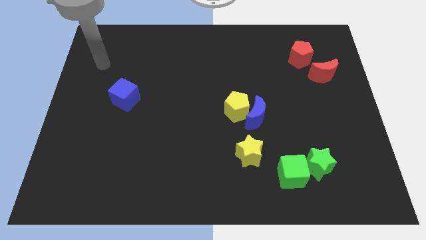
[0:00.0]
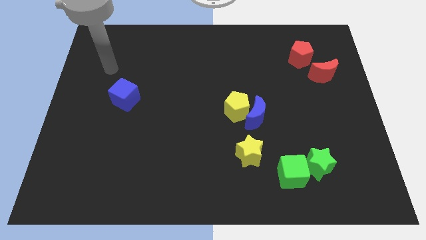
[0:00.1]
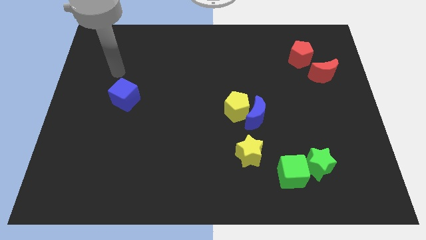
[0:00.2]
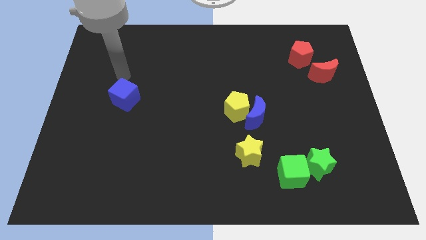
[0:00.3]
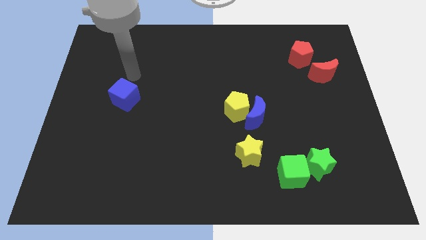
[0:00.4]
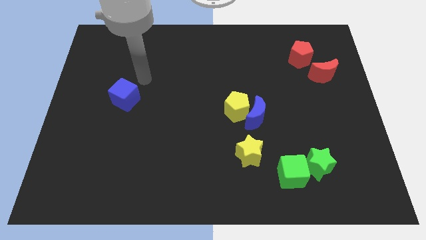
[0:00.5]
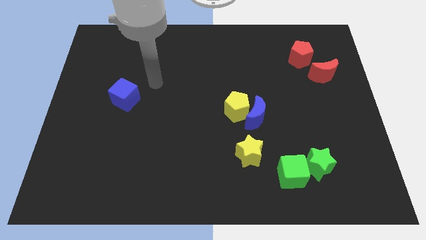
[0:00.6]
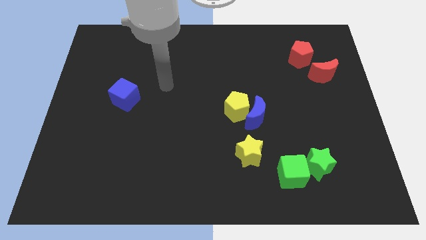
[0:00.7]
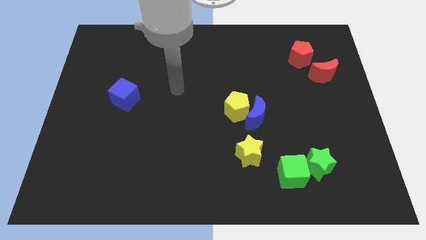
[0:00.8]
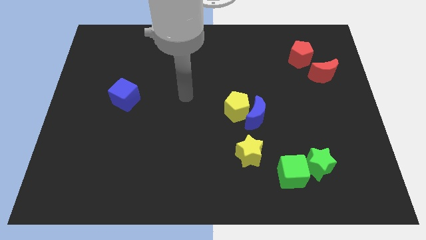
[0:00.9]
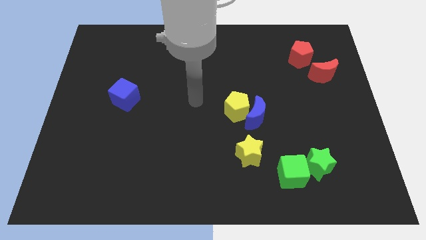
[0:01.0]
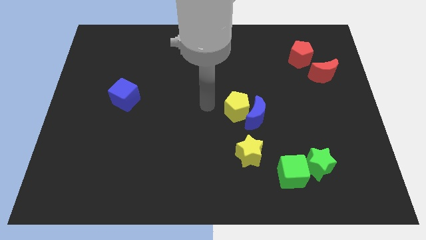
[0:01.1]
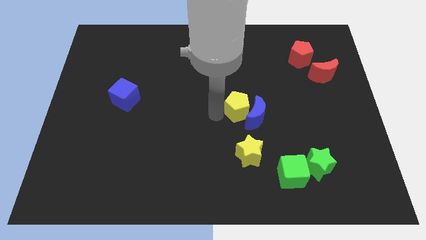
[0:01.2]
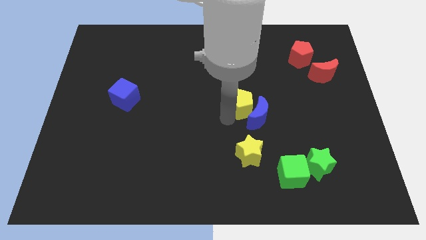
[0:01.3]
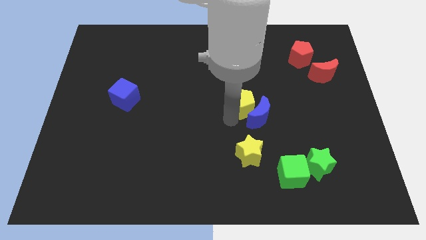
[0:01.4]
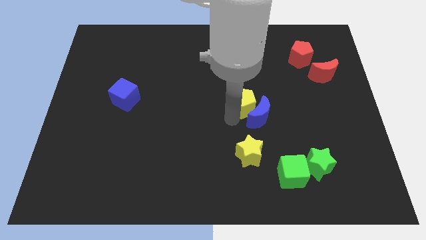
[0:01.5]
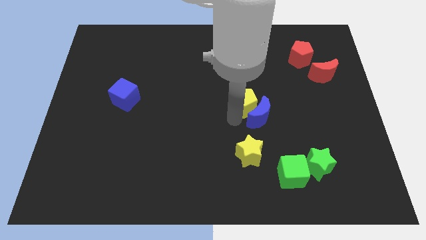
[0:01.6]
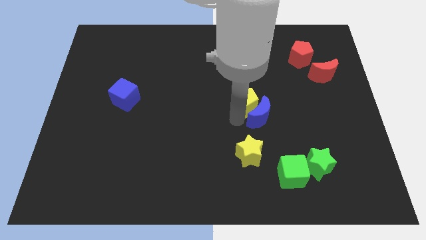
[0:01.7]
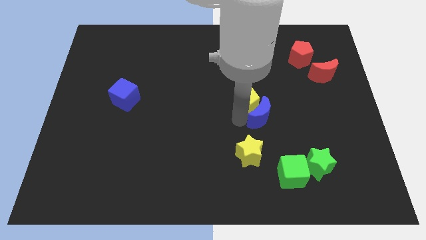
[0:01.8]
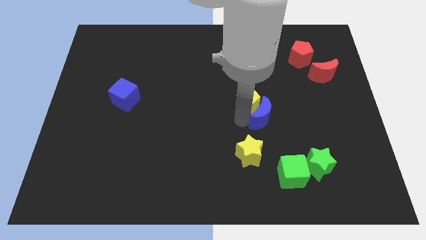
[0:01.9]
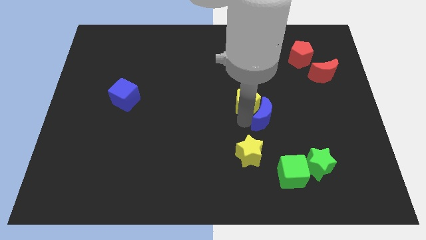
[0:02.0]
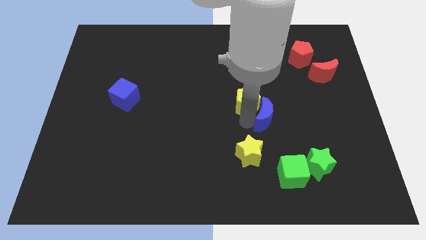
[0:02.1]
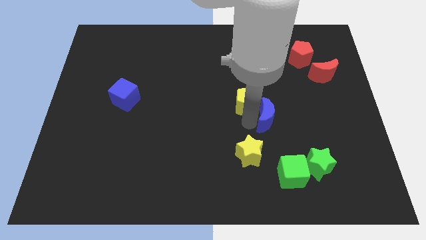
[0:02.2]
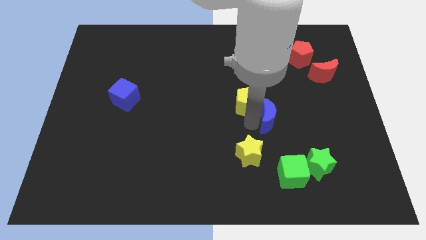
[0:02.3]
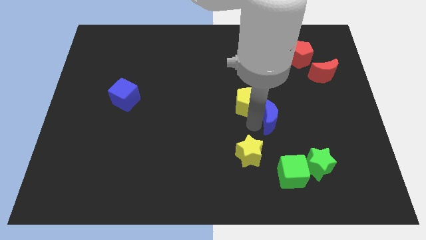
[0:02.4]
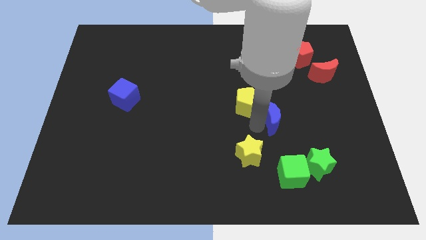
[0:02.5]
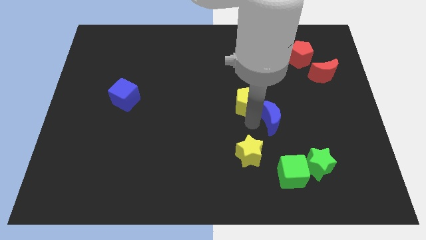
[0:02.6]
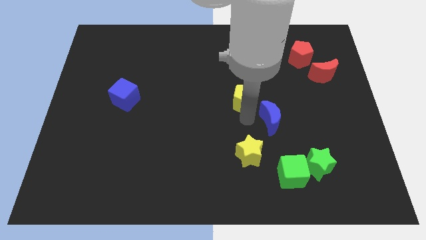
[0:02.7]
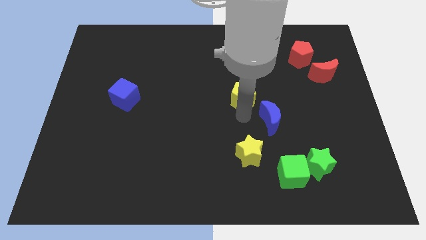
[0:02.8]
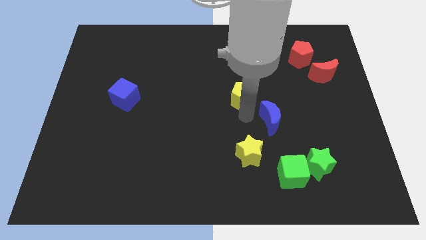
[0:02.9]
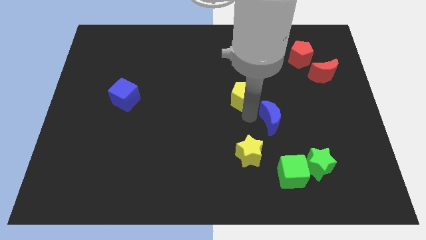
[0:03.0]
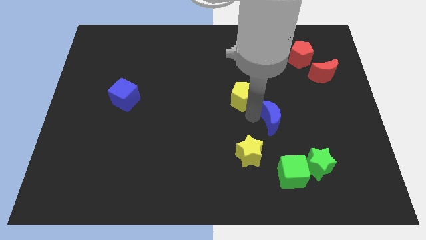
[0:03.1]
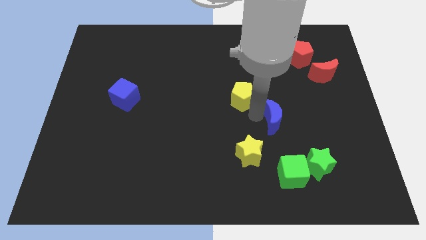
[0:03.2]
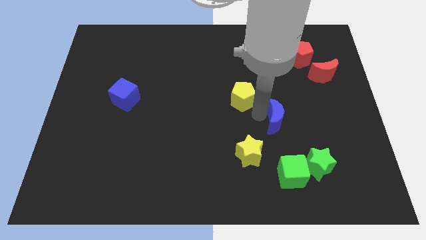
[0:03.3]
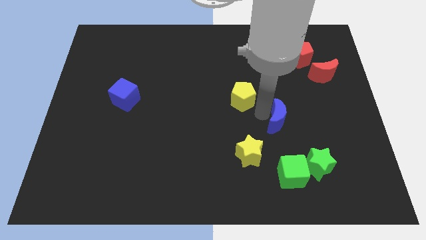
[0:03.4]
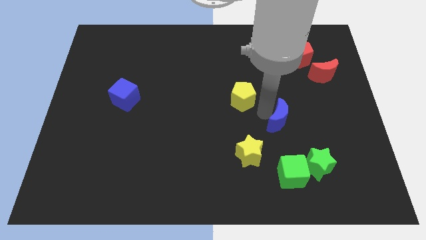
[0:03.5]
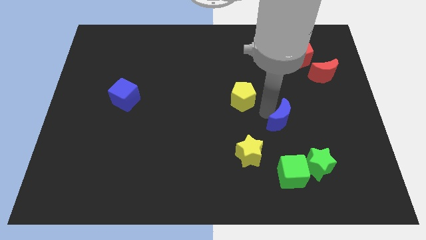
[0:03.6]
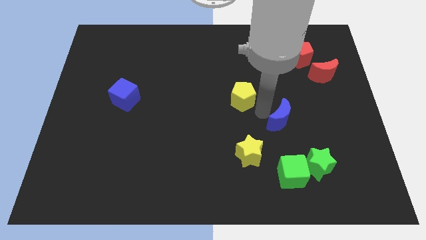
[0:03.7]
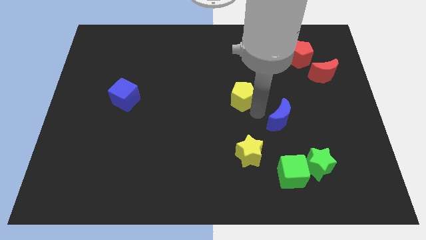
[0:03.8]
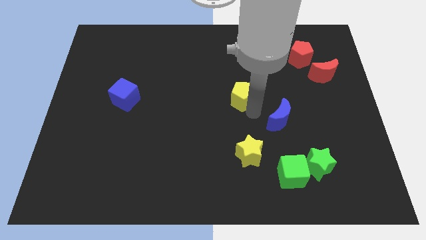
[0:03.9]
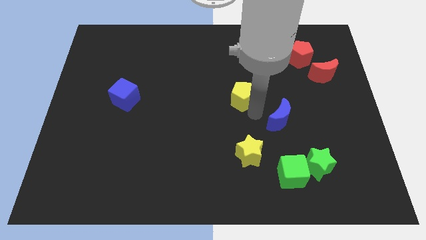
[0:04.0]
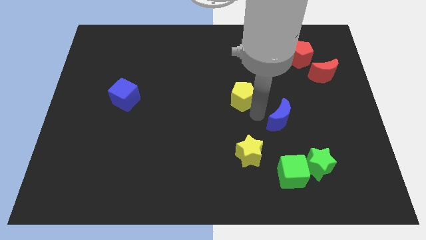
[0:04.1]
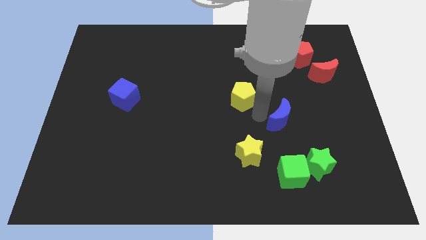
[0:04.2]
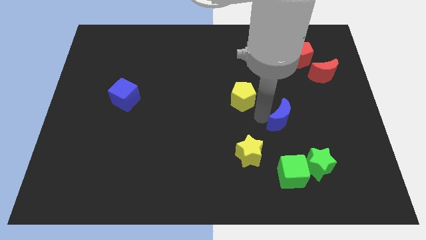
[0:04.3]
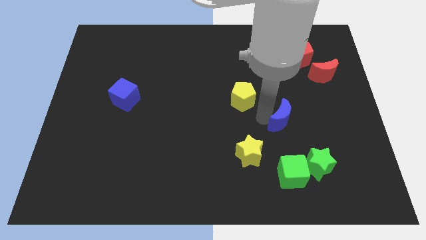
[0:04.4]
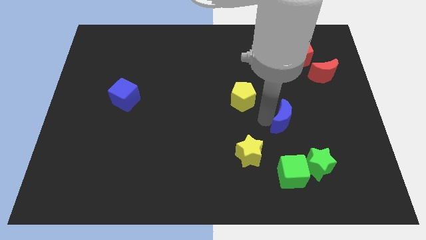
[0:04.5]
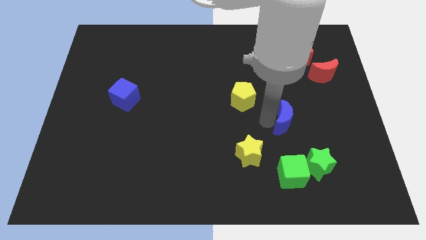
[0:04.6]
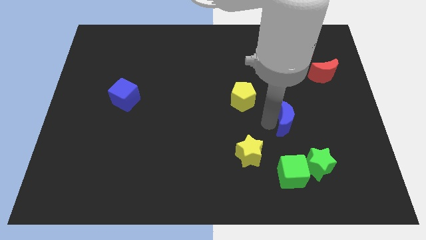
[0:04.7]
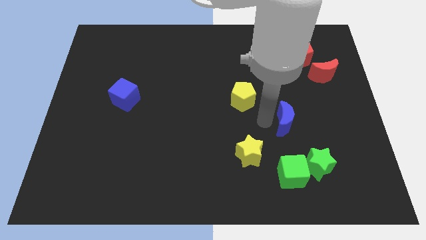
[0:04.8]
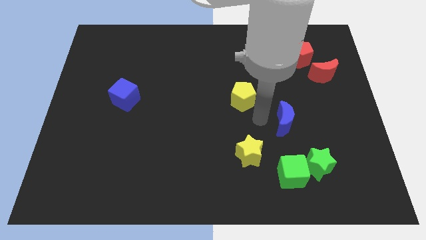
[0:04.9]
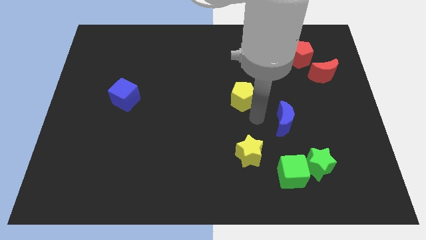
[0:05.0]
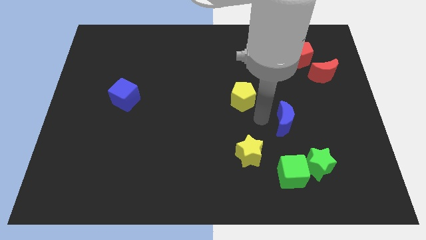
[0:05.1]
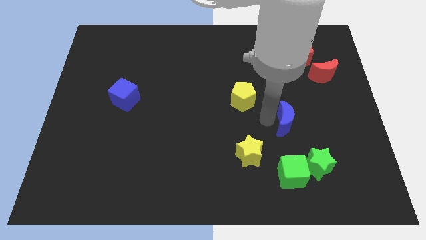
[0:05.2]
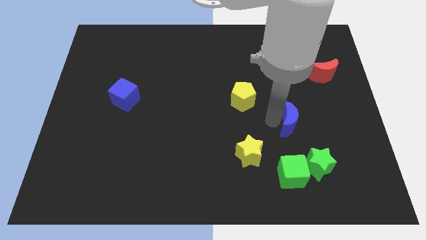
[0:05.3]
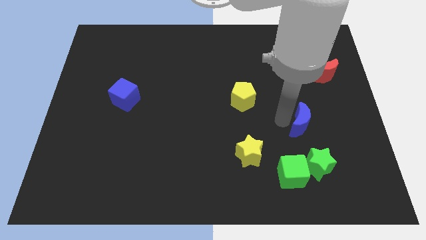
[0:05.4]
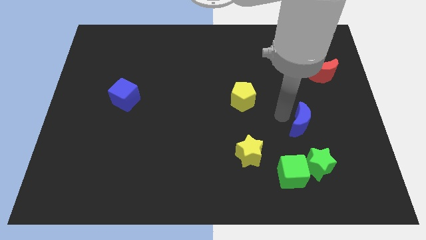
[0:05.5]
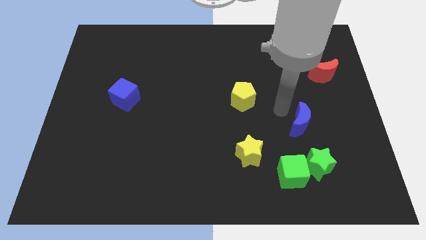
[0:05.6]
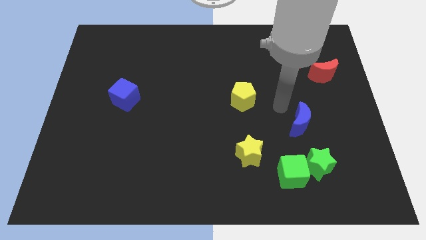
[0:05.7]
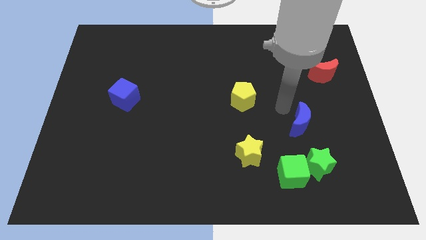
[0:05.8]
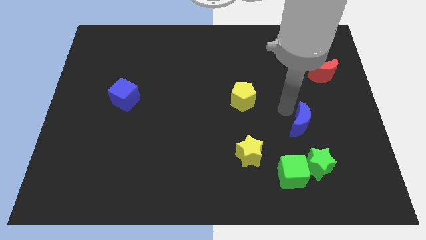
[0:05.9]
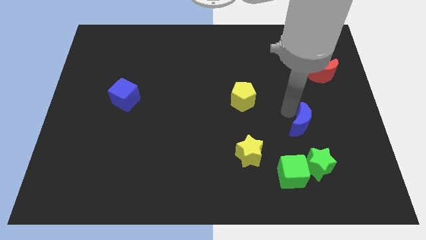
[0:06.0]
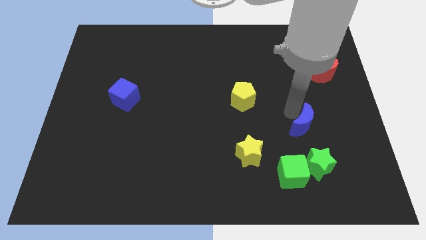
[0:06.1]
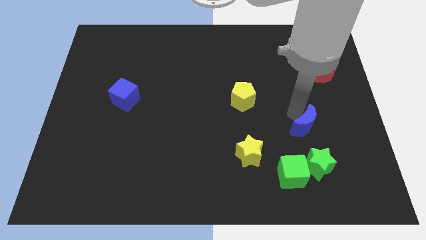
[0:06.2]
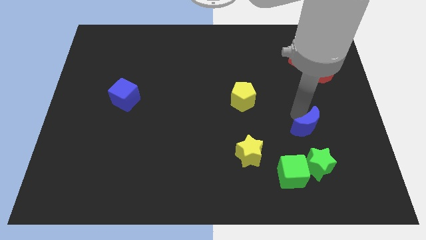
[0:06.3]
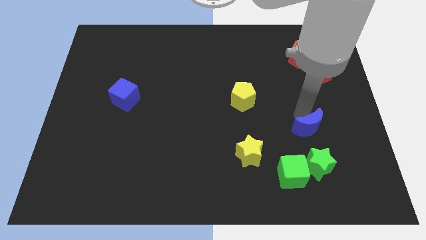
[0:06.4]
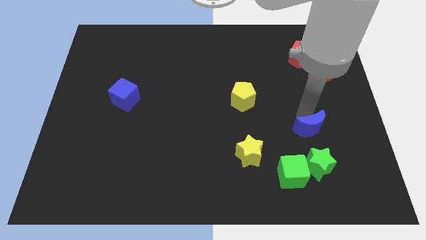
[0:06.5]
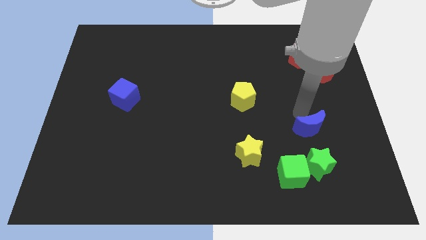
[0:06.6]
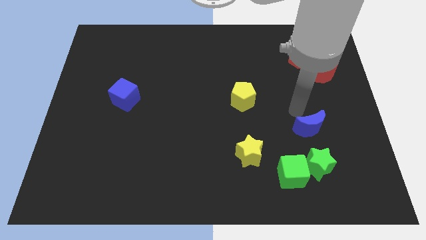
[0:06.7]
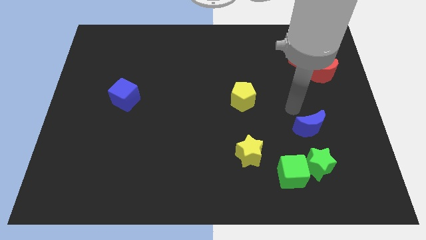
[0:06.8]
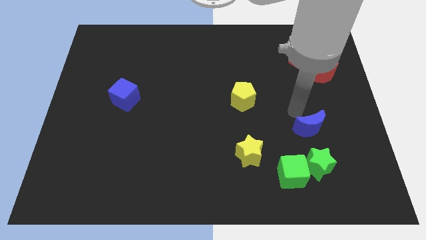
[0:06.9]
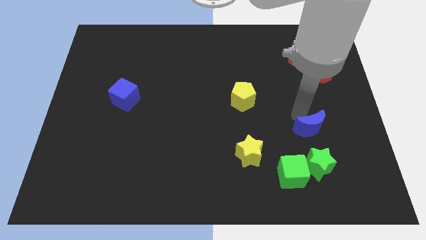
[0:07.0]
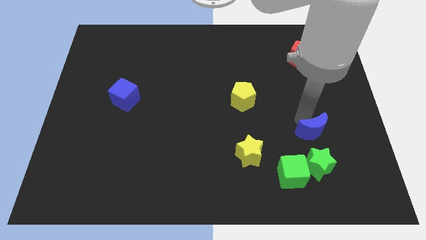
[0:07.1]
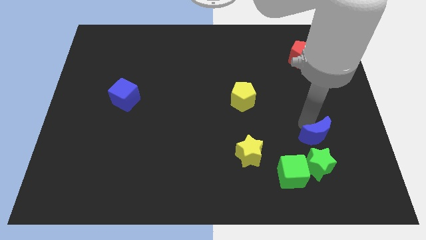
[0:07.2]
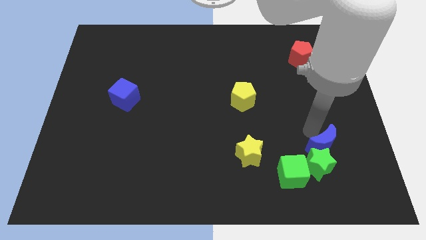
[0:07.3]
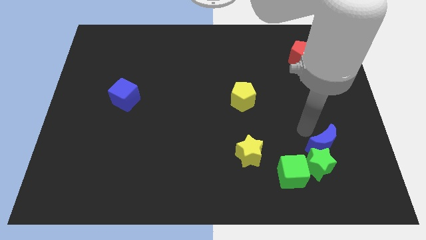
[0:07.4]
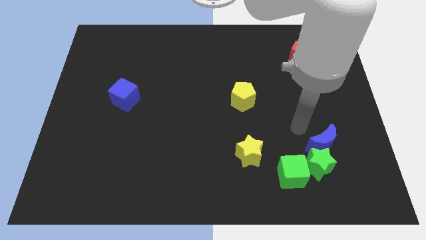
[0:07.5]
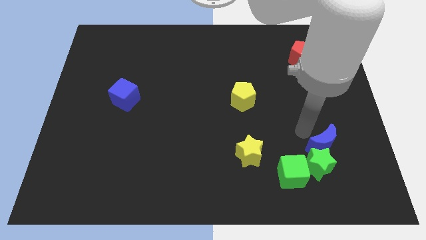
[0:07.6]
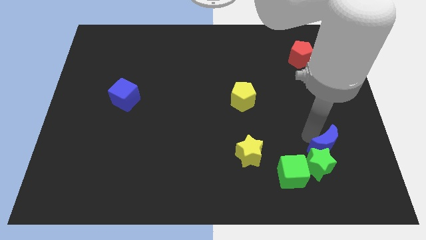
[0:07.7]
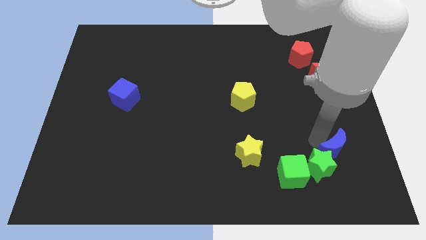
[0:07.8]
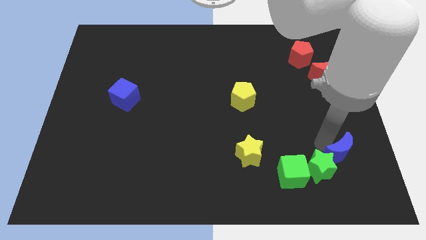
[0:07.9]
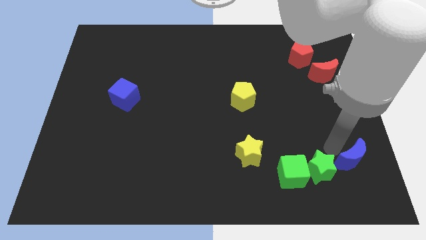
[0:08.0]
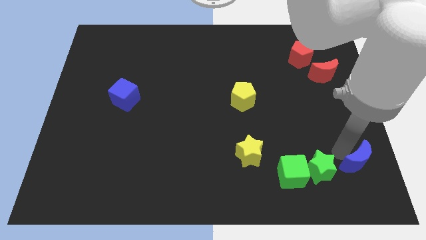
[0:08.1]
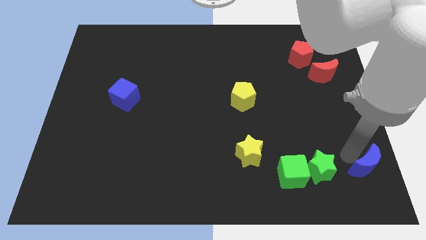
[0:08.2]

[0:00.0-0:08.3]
move the blue moon to the bottom right of the board
